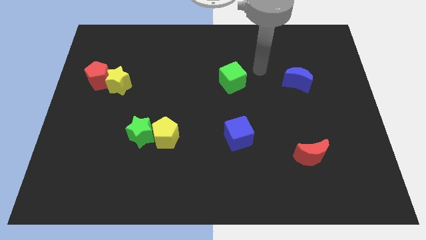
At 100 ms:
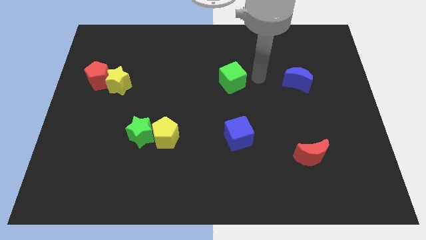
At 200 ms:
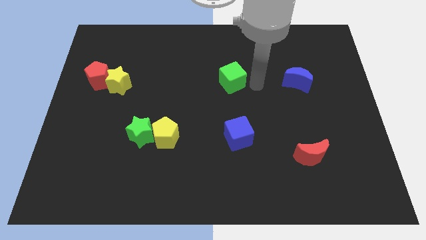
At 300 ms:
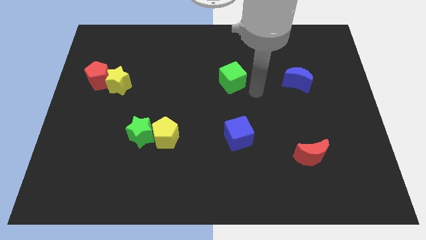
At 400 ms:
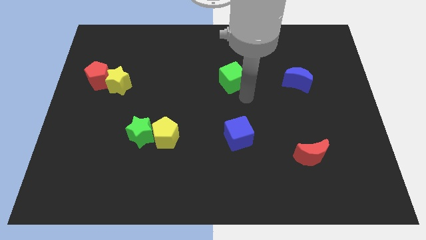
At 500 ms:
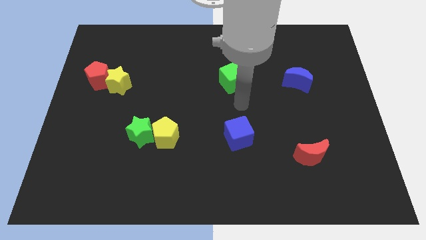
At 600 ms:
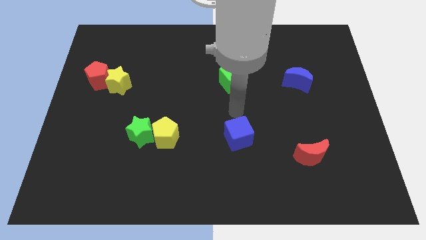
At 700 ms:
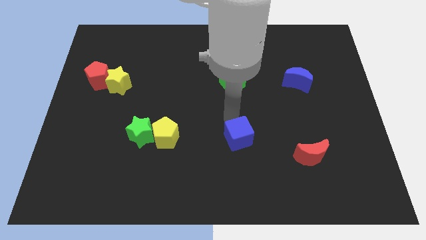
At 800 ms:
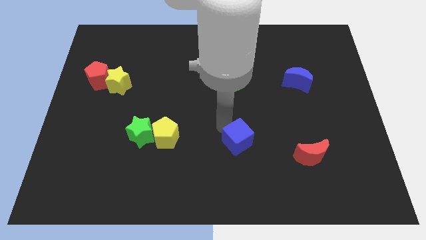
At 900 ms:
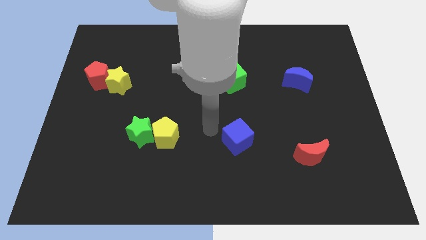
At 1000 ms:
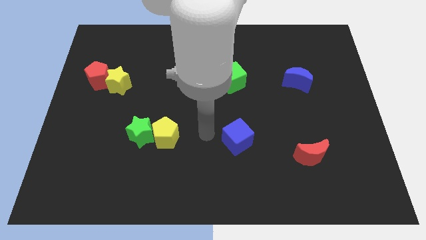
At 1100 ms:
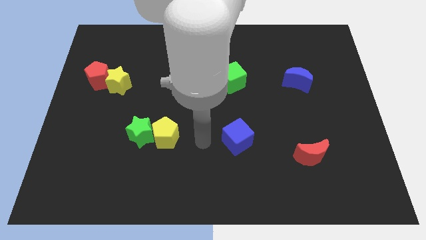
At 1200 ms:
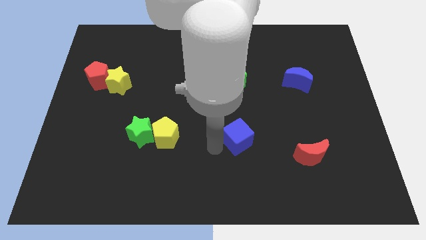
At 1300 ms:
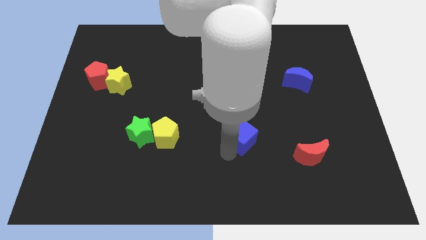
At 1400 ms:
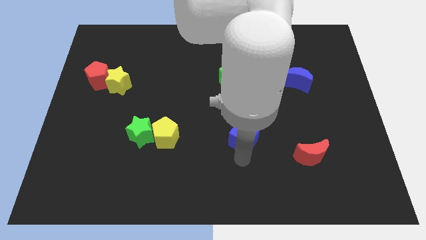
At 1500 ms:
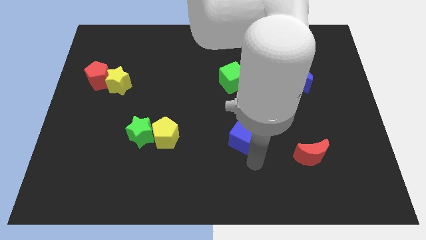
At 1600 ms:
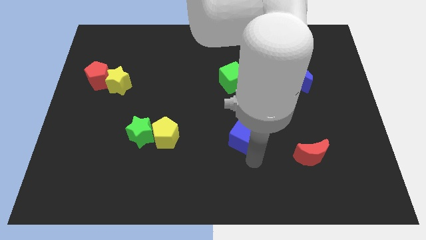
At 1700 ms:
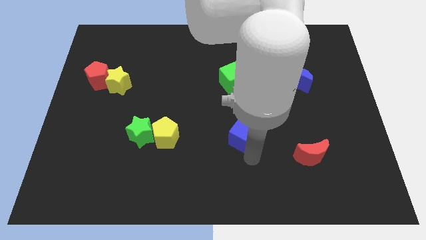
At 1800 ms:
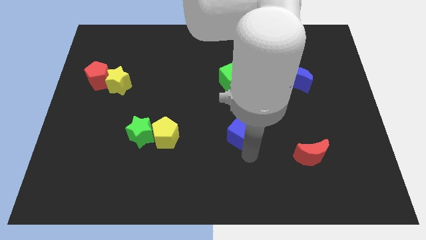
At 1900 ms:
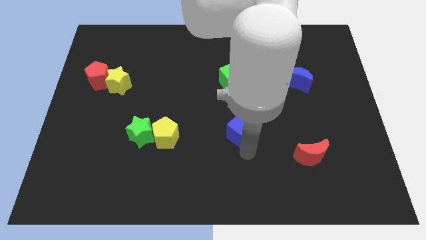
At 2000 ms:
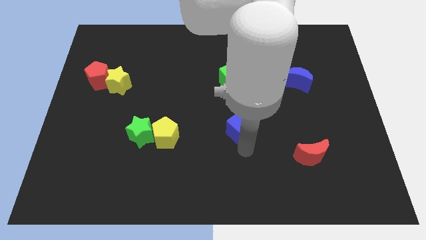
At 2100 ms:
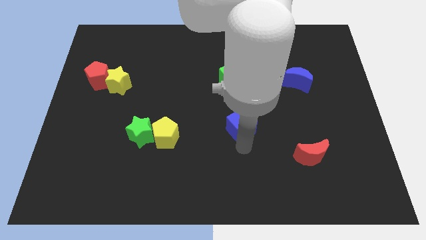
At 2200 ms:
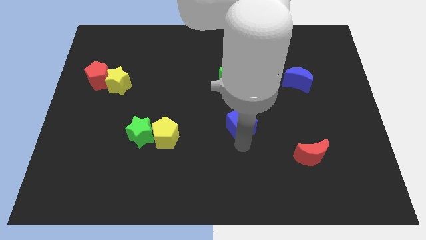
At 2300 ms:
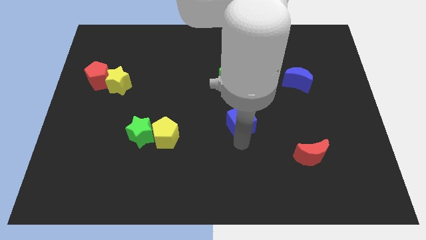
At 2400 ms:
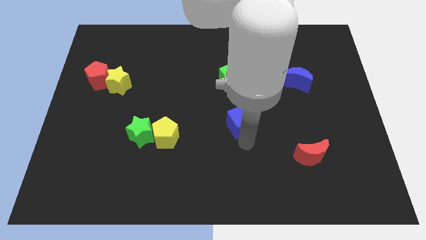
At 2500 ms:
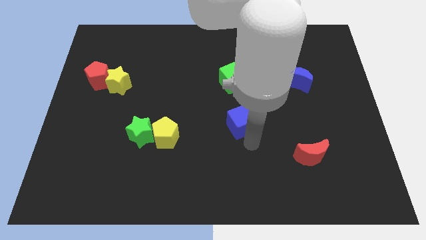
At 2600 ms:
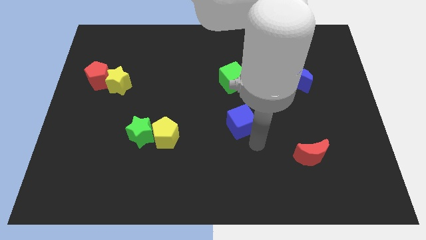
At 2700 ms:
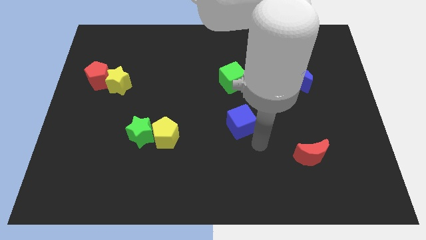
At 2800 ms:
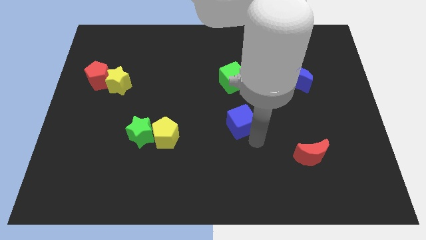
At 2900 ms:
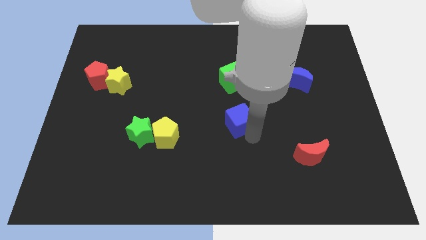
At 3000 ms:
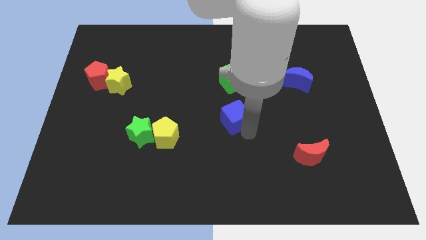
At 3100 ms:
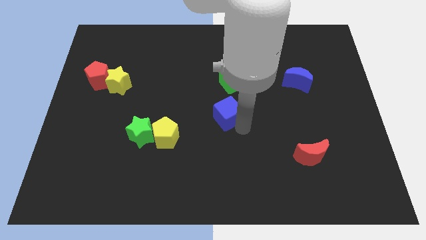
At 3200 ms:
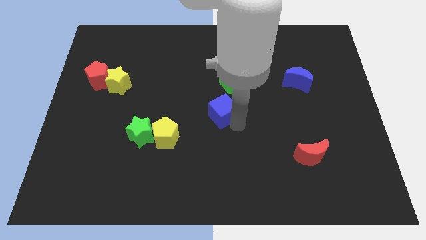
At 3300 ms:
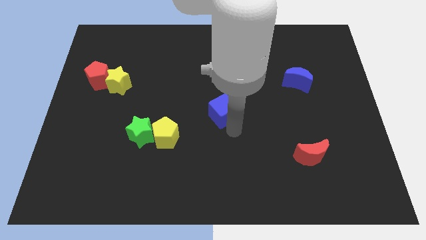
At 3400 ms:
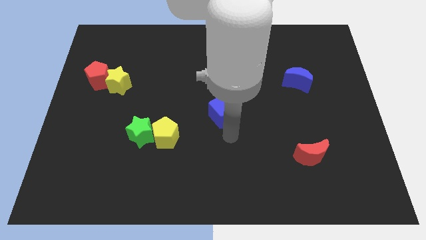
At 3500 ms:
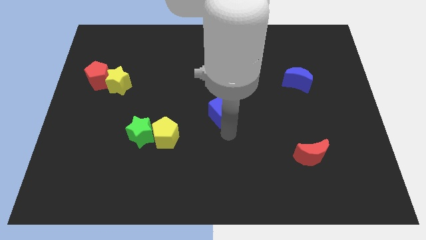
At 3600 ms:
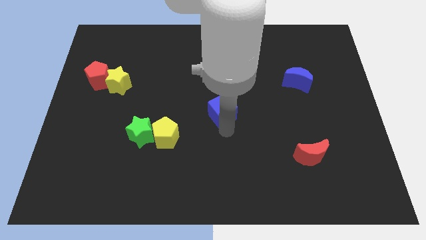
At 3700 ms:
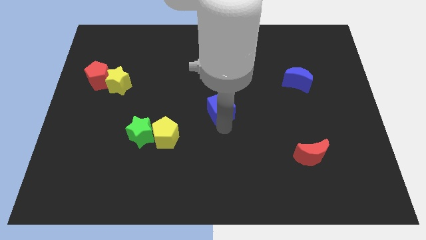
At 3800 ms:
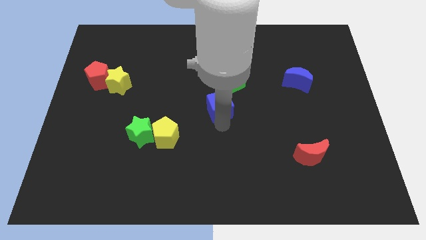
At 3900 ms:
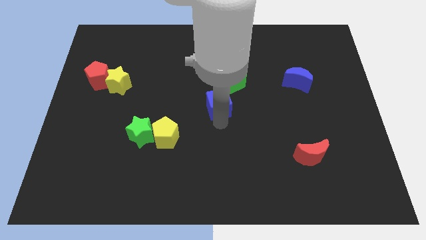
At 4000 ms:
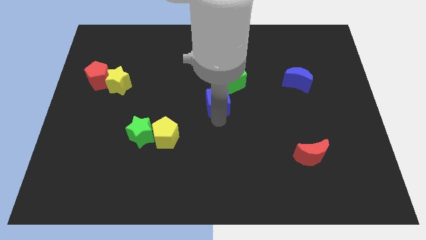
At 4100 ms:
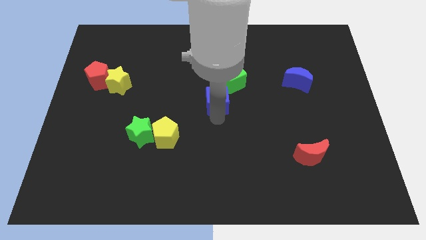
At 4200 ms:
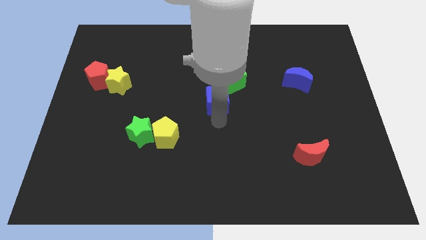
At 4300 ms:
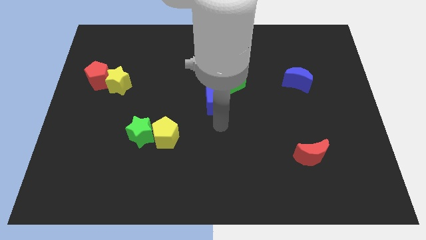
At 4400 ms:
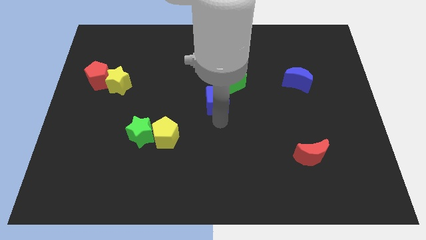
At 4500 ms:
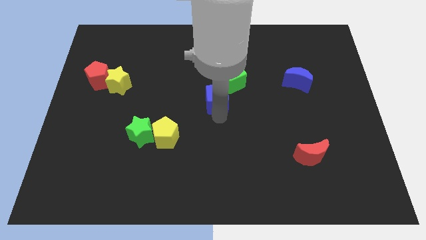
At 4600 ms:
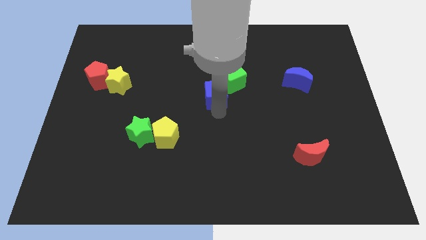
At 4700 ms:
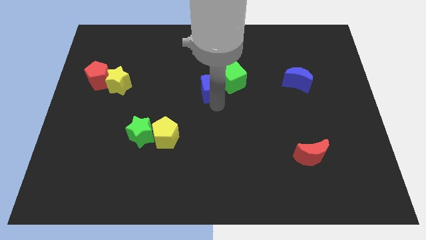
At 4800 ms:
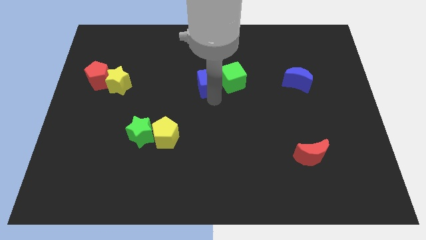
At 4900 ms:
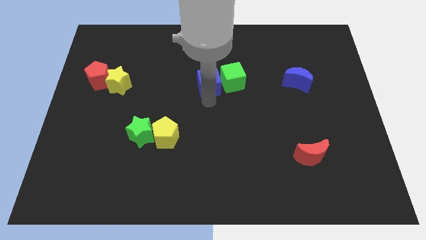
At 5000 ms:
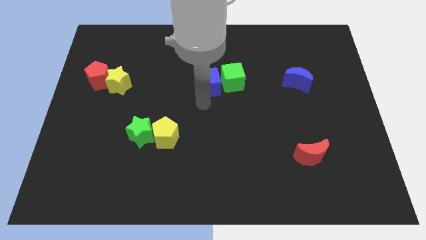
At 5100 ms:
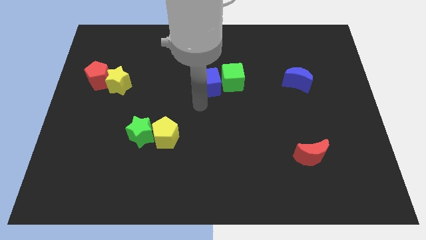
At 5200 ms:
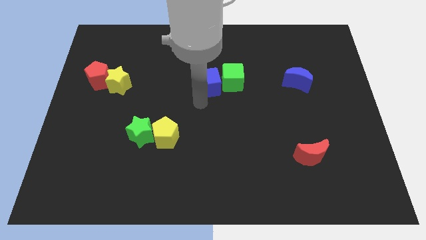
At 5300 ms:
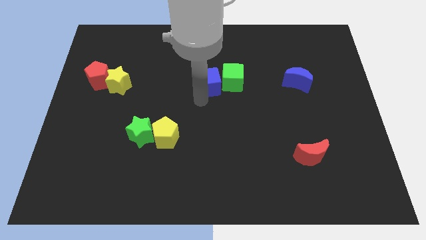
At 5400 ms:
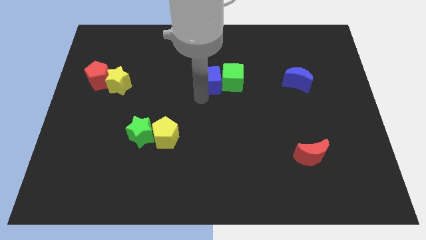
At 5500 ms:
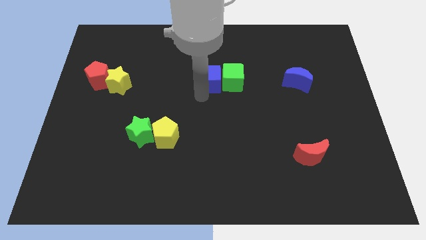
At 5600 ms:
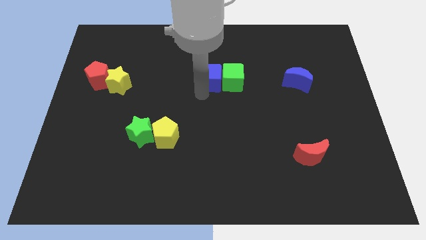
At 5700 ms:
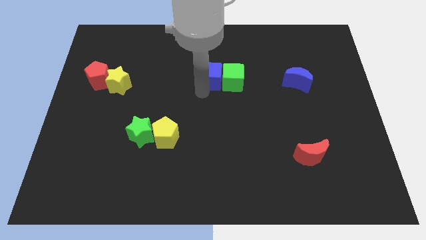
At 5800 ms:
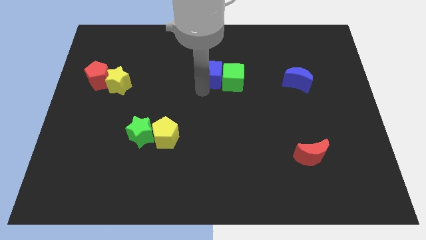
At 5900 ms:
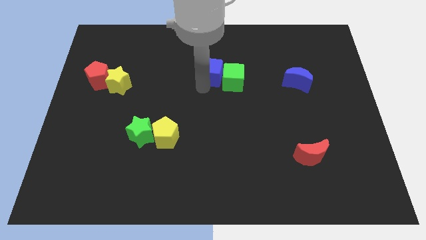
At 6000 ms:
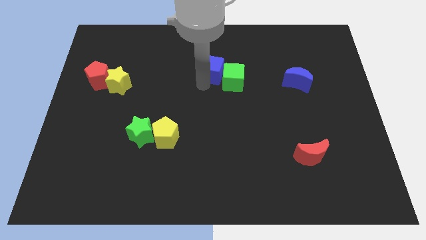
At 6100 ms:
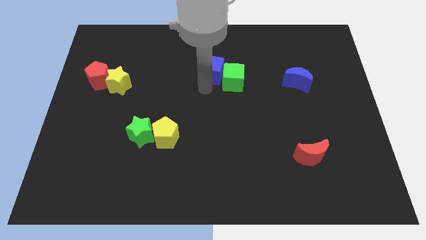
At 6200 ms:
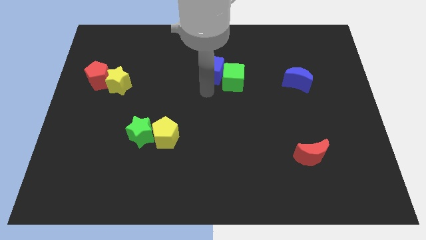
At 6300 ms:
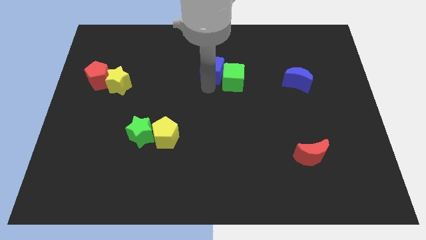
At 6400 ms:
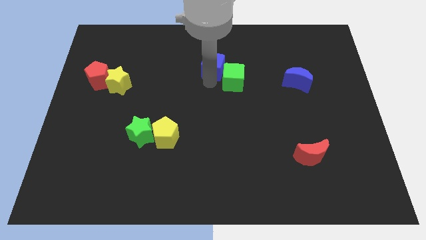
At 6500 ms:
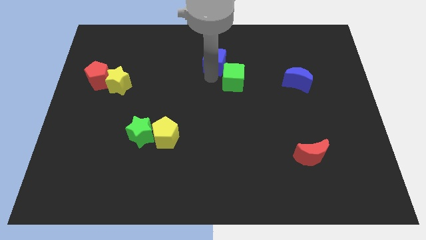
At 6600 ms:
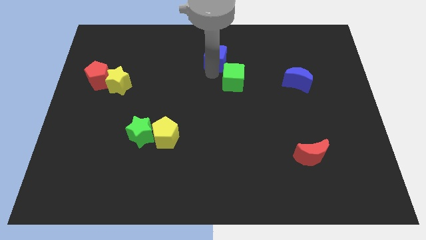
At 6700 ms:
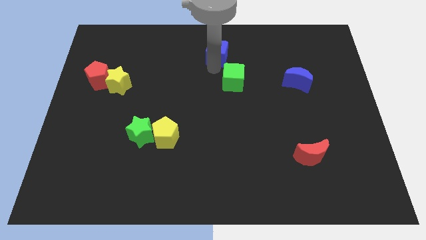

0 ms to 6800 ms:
slide the blue cube to the top side

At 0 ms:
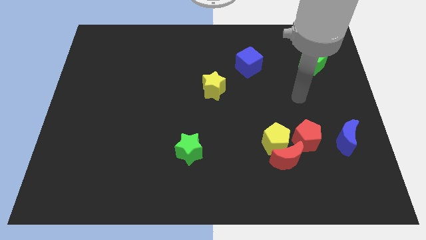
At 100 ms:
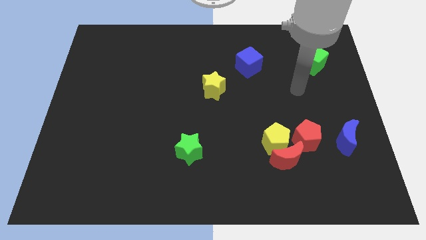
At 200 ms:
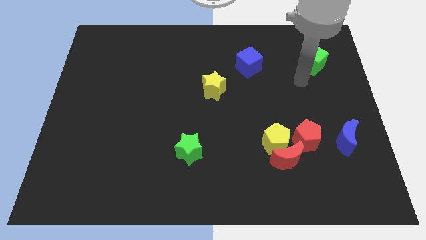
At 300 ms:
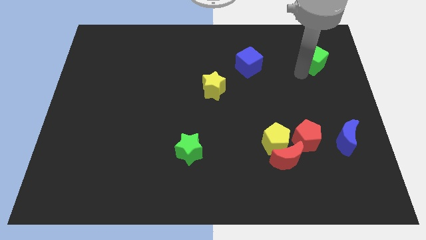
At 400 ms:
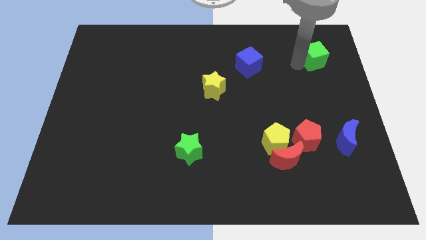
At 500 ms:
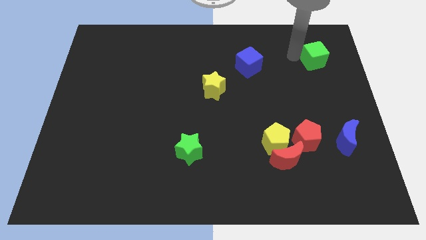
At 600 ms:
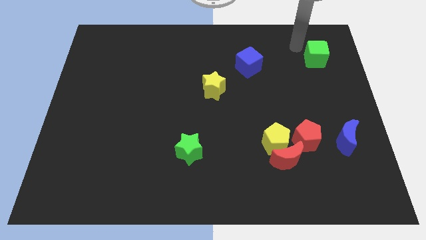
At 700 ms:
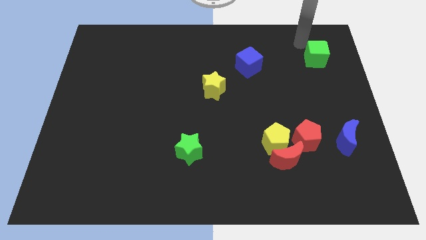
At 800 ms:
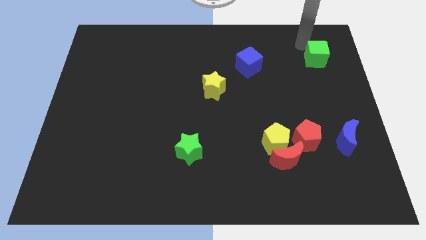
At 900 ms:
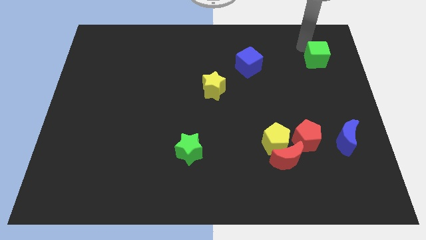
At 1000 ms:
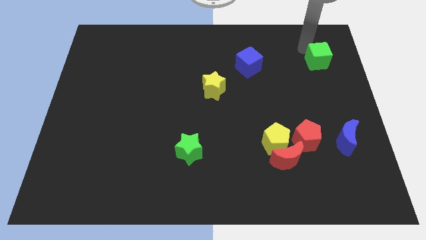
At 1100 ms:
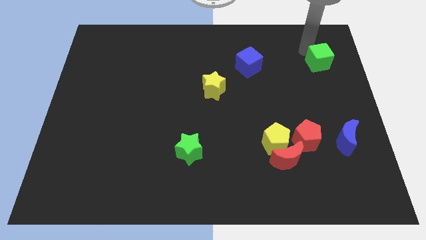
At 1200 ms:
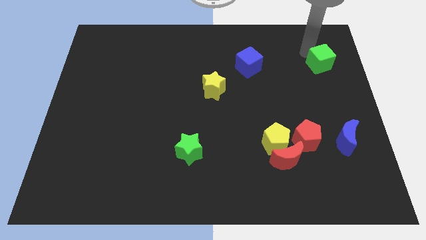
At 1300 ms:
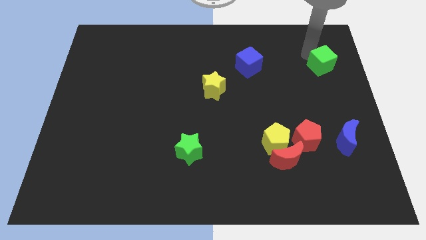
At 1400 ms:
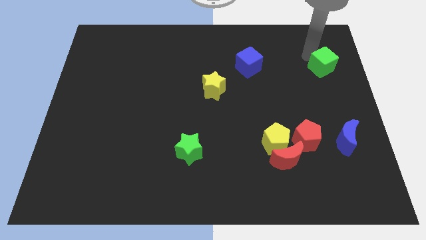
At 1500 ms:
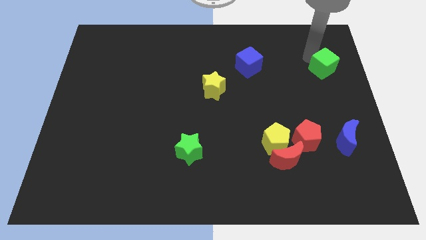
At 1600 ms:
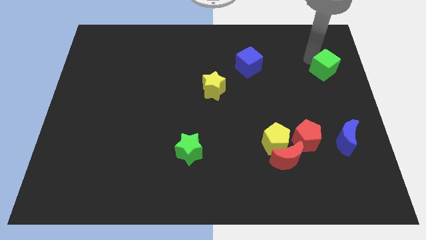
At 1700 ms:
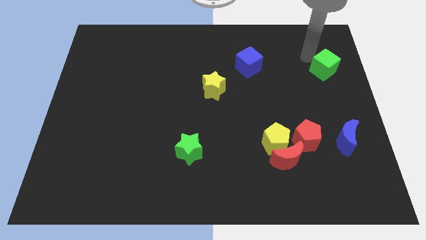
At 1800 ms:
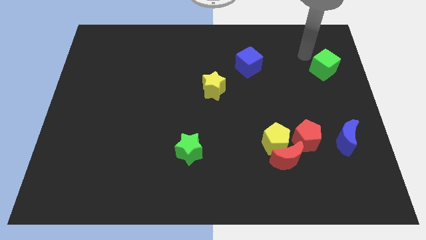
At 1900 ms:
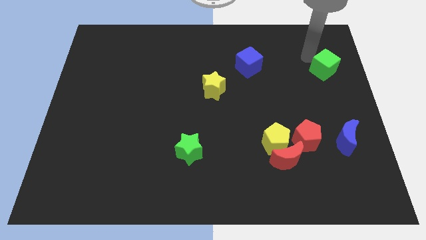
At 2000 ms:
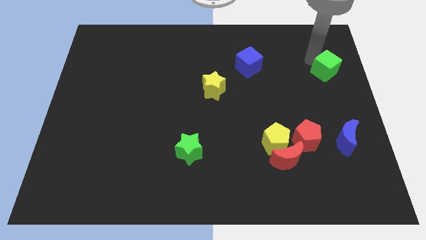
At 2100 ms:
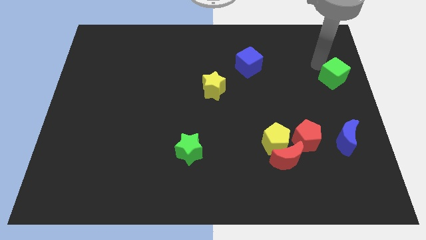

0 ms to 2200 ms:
slide the green cube to the right side of the board
